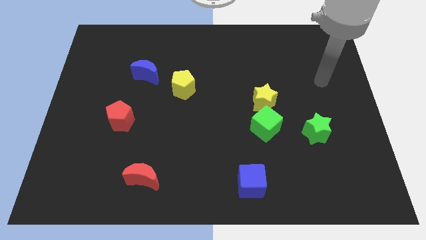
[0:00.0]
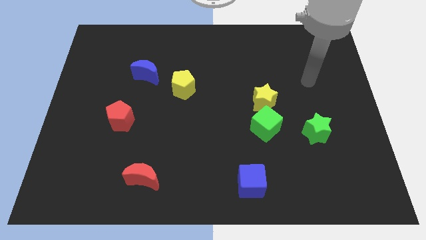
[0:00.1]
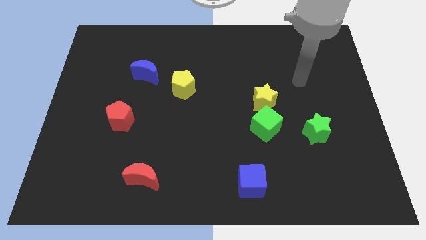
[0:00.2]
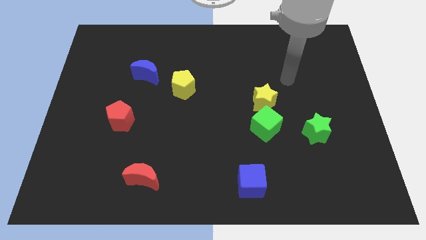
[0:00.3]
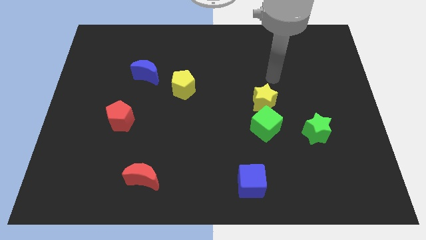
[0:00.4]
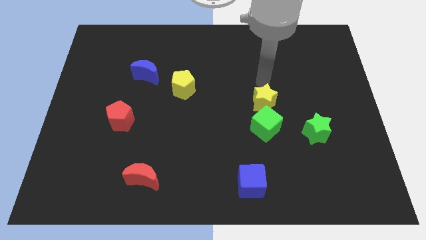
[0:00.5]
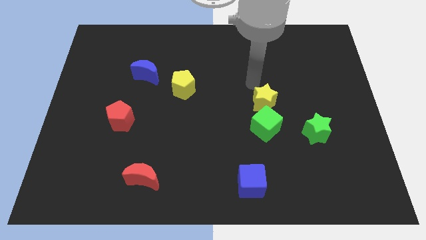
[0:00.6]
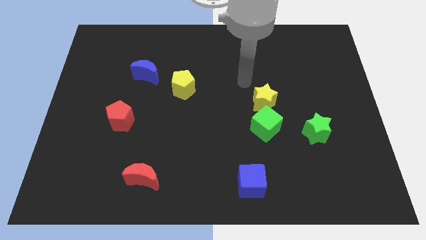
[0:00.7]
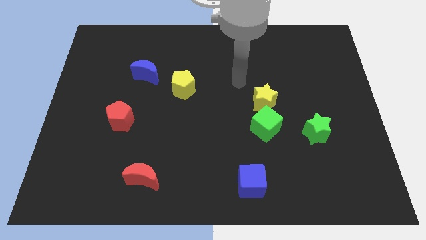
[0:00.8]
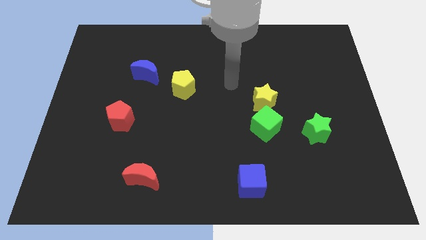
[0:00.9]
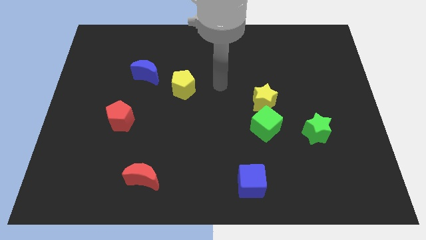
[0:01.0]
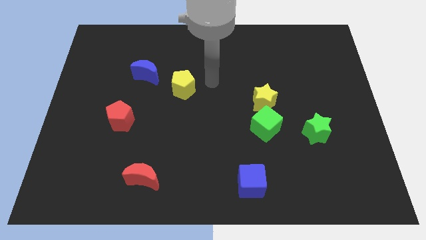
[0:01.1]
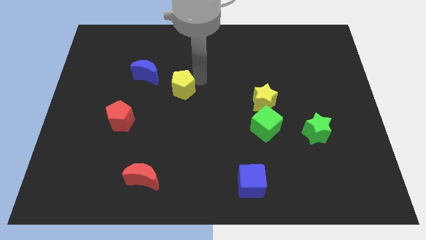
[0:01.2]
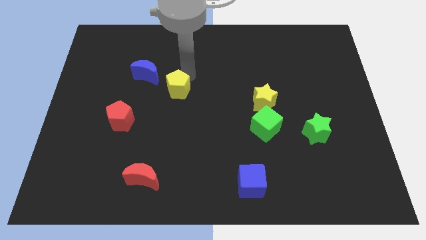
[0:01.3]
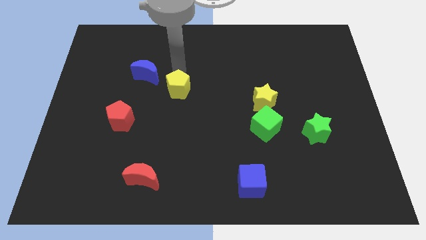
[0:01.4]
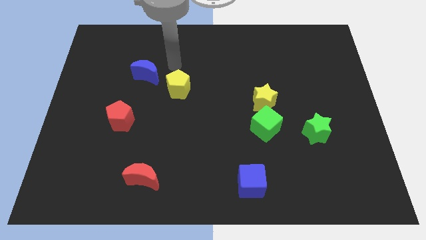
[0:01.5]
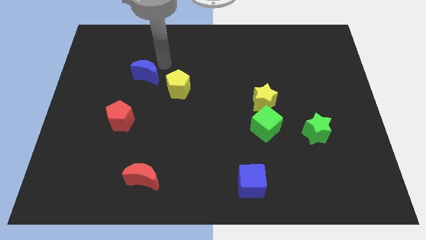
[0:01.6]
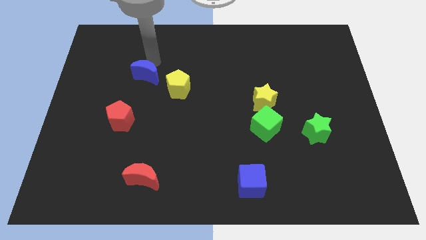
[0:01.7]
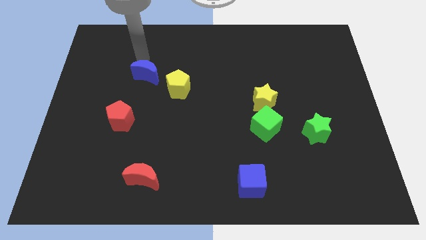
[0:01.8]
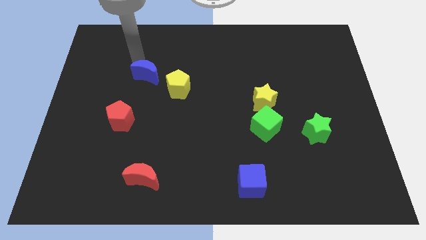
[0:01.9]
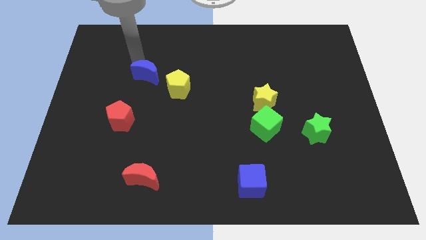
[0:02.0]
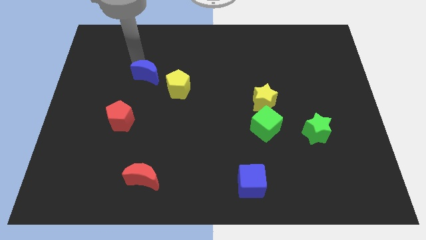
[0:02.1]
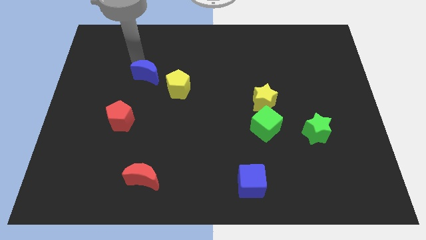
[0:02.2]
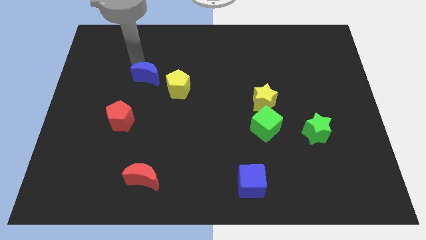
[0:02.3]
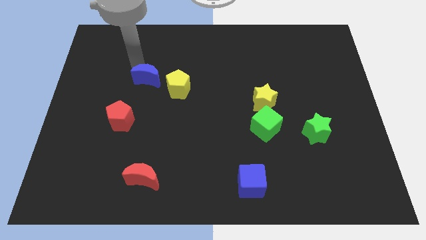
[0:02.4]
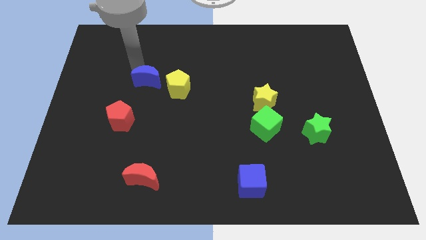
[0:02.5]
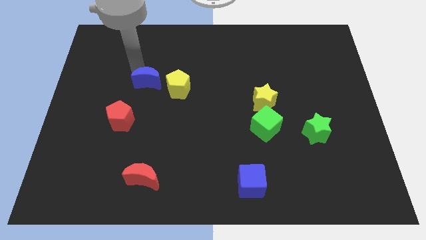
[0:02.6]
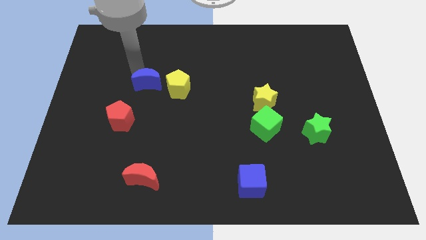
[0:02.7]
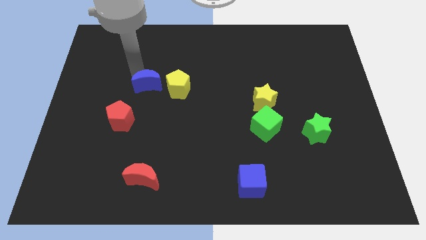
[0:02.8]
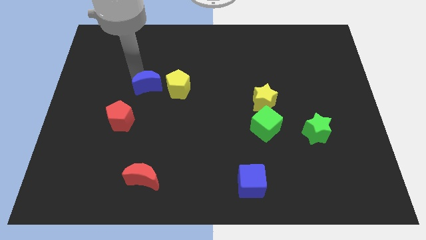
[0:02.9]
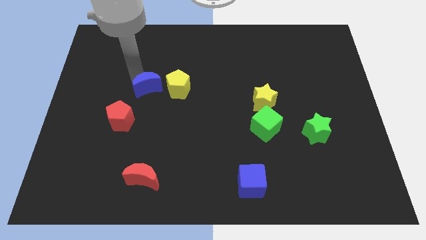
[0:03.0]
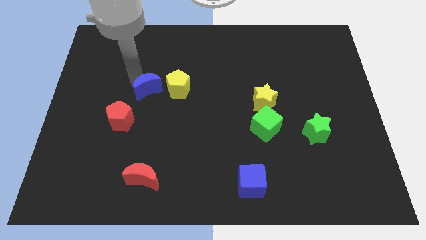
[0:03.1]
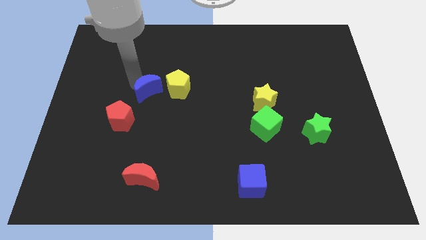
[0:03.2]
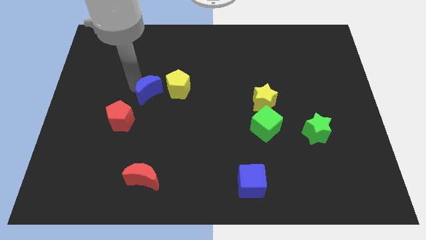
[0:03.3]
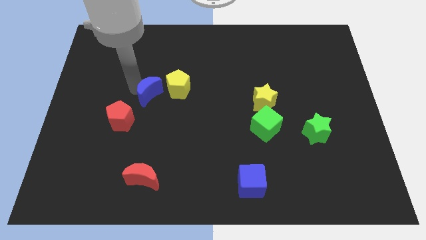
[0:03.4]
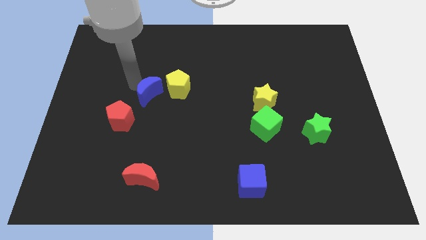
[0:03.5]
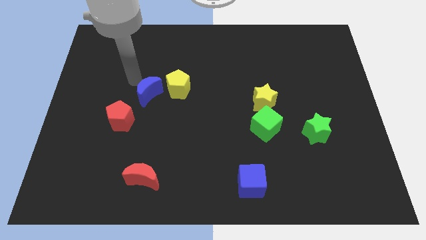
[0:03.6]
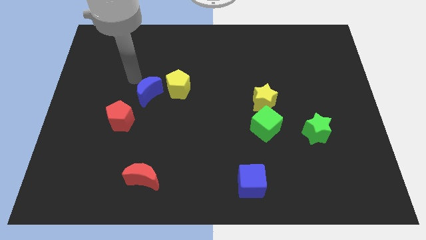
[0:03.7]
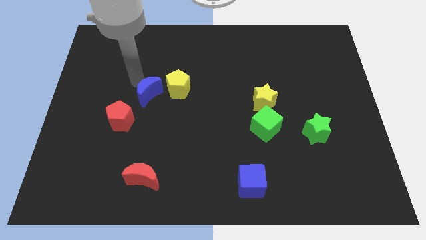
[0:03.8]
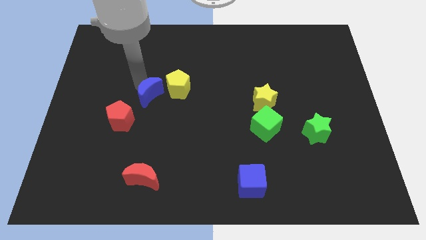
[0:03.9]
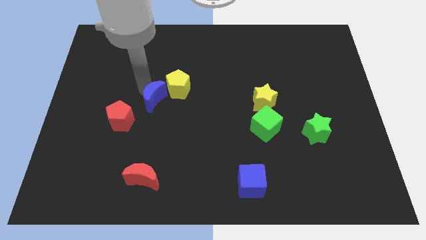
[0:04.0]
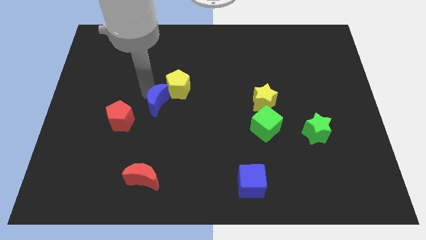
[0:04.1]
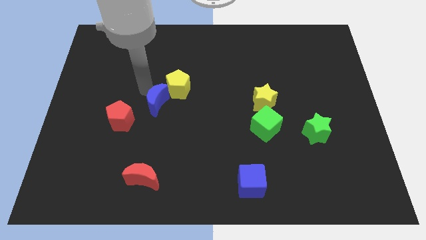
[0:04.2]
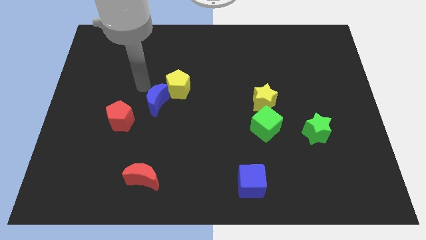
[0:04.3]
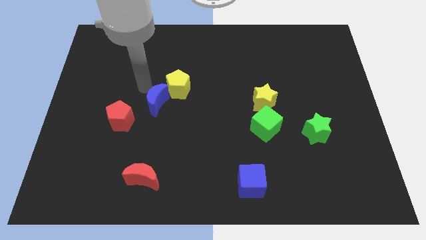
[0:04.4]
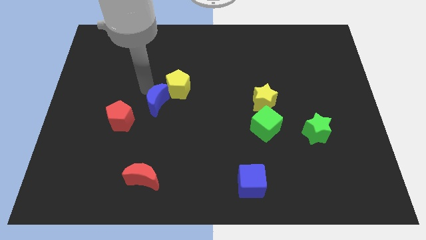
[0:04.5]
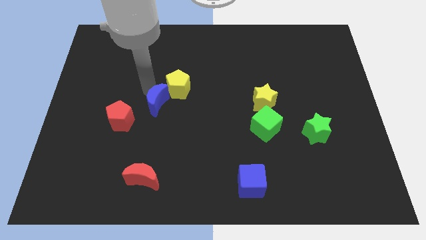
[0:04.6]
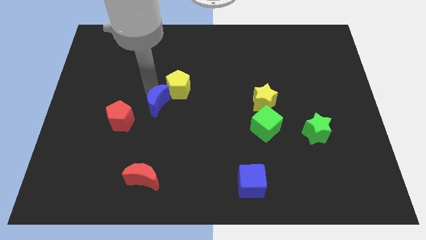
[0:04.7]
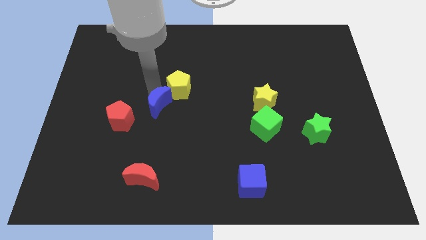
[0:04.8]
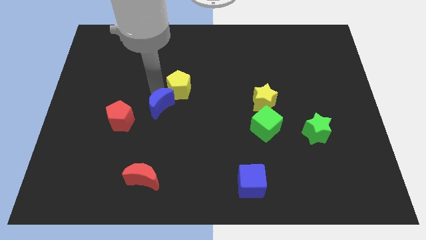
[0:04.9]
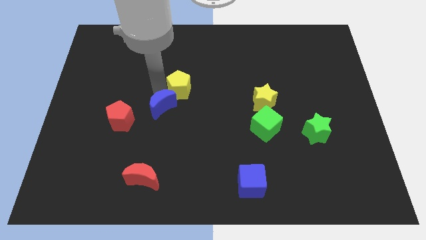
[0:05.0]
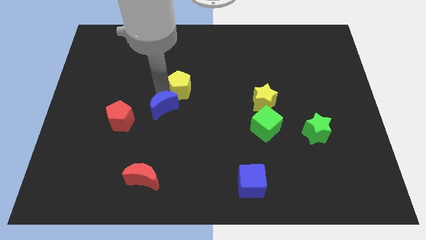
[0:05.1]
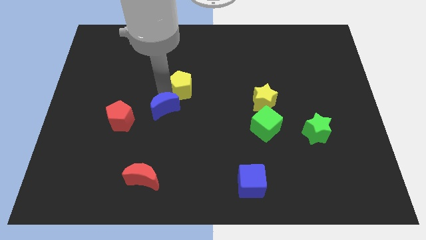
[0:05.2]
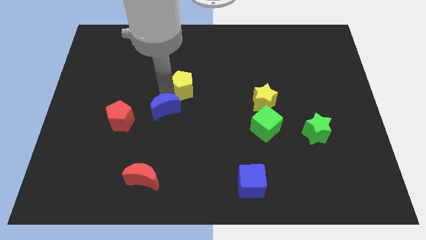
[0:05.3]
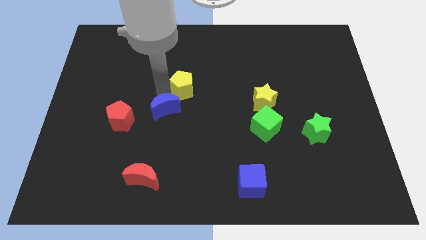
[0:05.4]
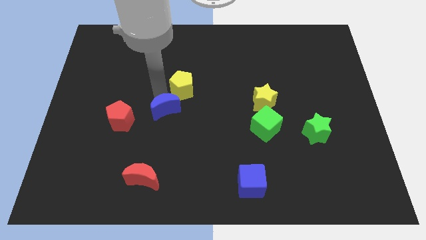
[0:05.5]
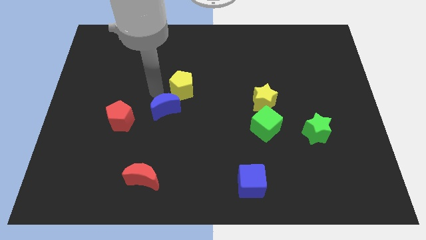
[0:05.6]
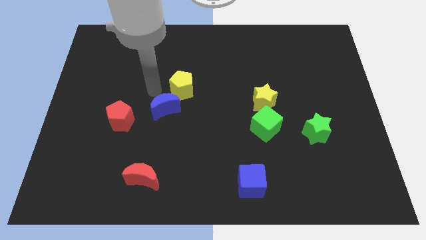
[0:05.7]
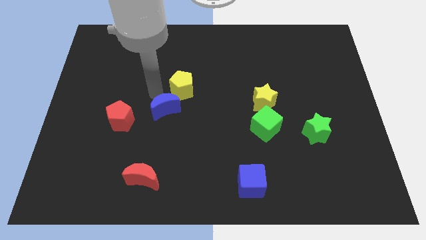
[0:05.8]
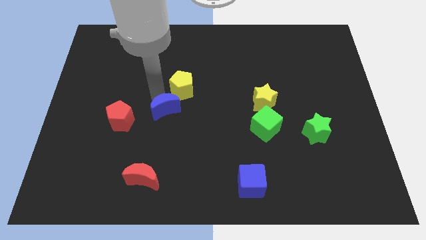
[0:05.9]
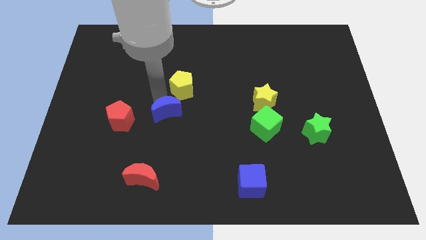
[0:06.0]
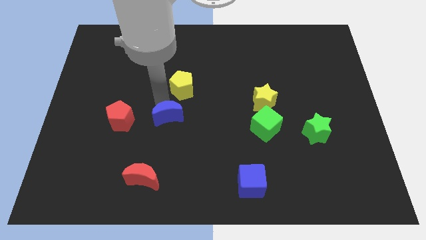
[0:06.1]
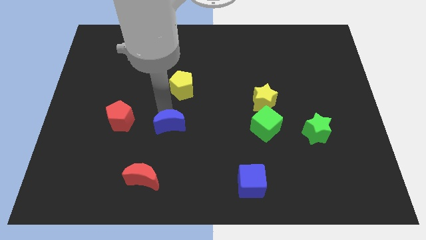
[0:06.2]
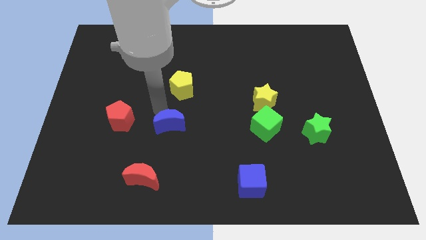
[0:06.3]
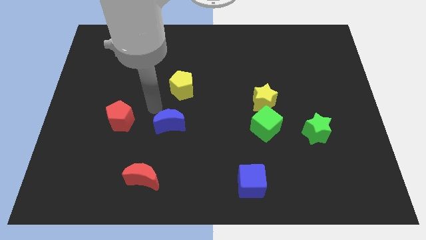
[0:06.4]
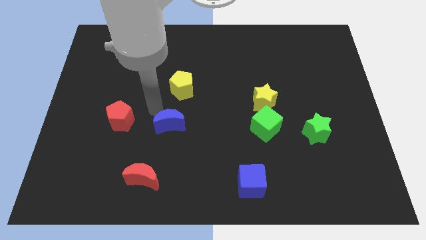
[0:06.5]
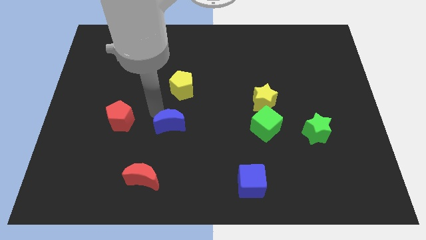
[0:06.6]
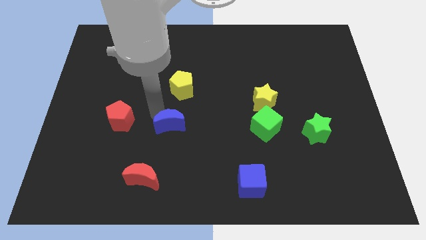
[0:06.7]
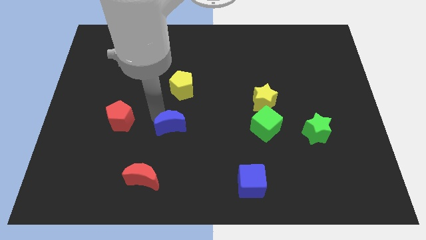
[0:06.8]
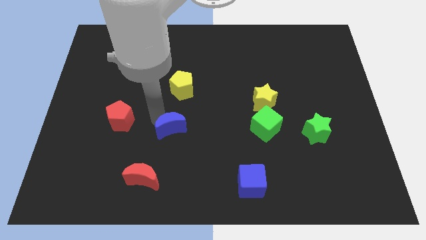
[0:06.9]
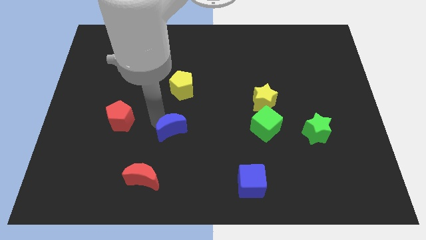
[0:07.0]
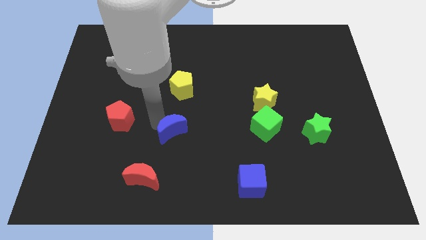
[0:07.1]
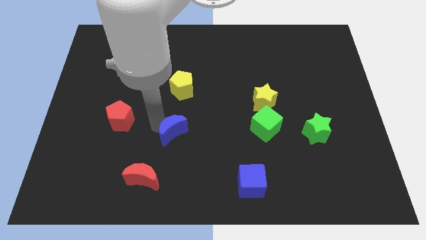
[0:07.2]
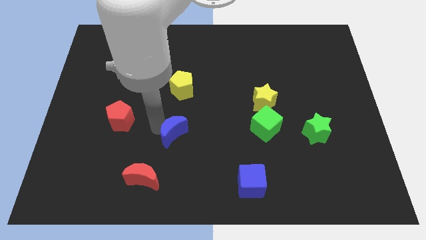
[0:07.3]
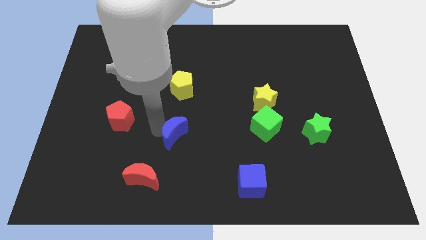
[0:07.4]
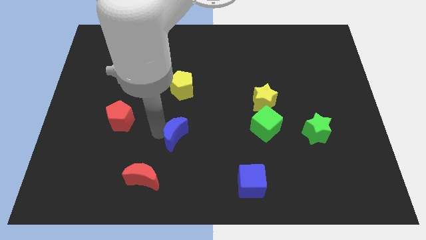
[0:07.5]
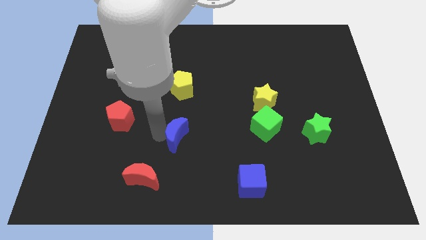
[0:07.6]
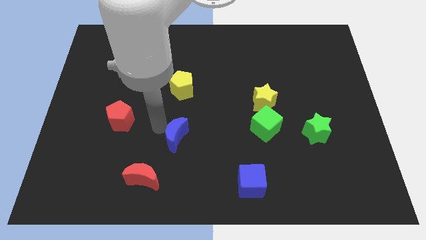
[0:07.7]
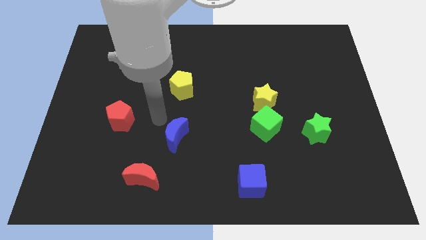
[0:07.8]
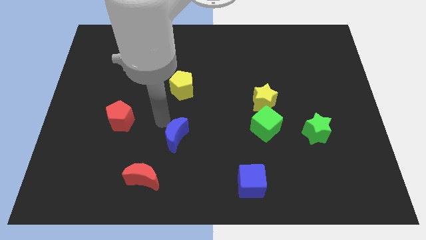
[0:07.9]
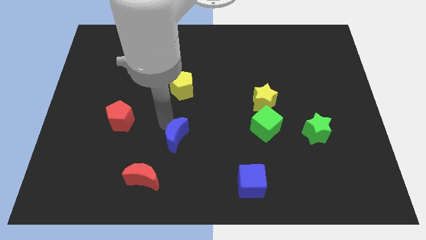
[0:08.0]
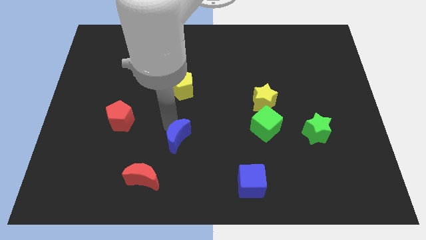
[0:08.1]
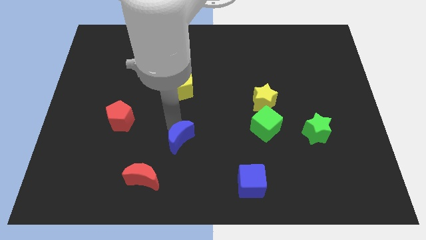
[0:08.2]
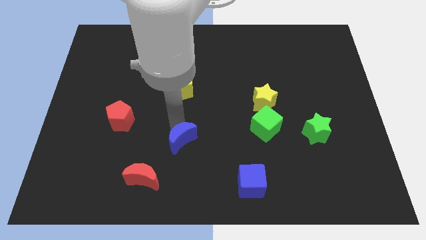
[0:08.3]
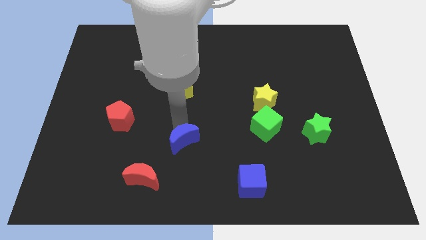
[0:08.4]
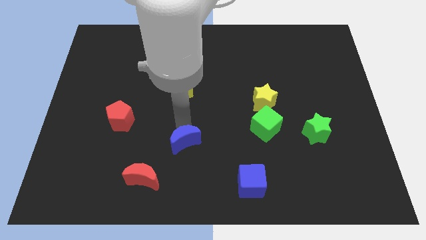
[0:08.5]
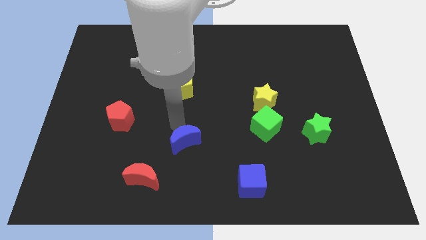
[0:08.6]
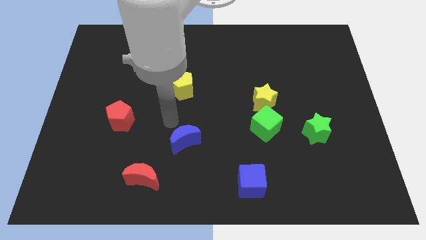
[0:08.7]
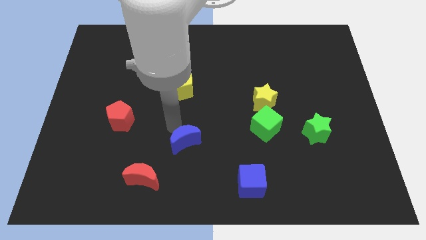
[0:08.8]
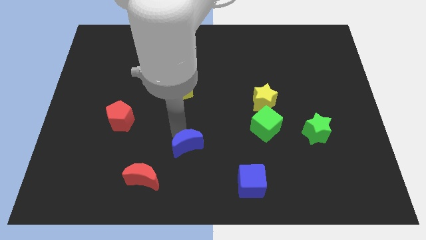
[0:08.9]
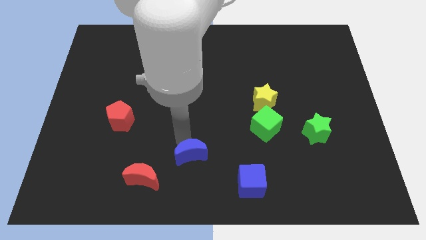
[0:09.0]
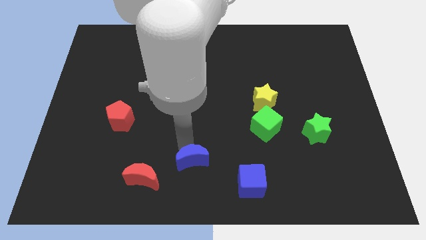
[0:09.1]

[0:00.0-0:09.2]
slide the blue moon to the bottom
